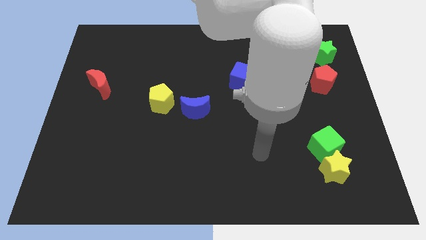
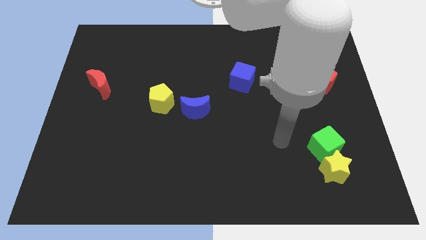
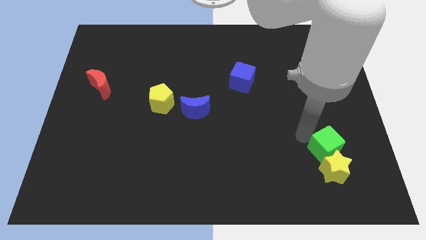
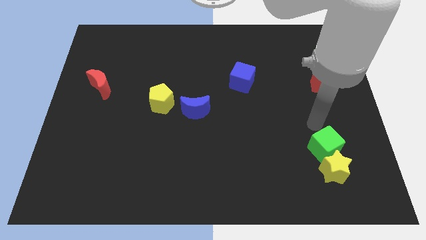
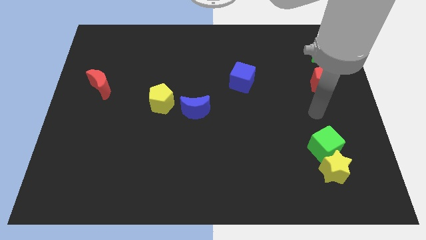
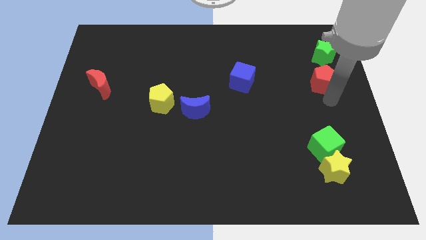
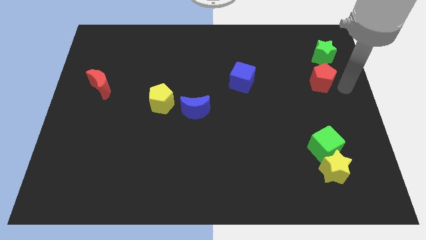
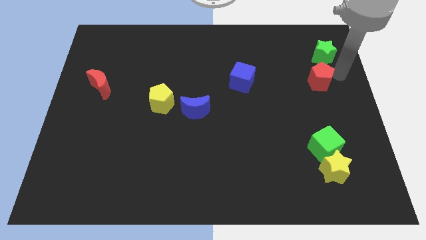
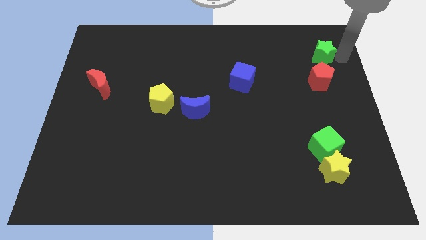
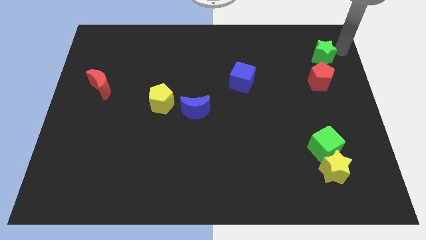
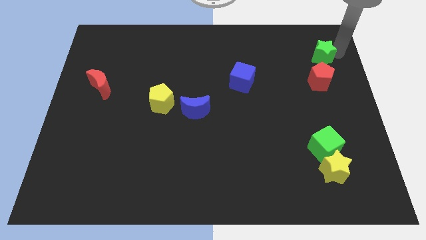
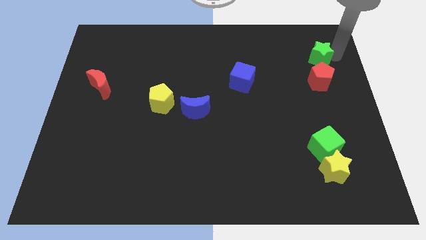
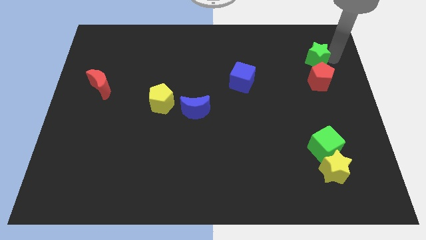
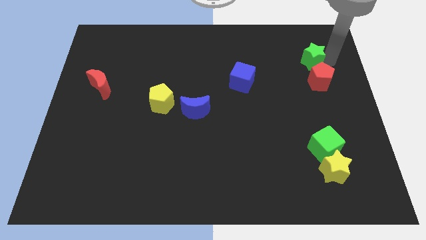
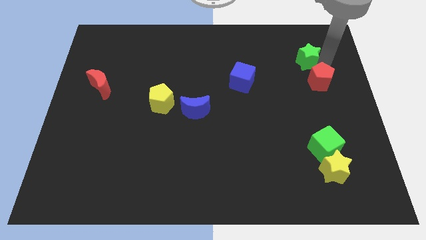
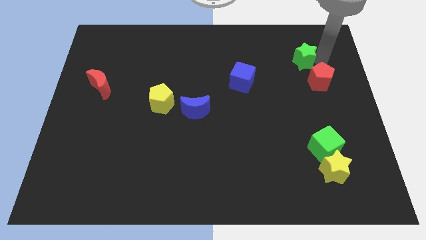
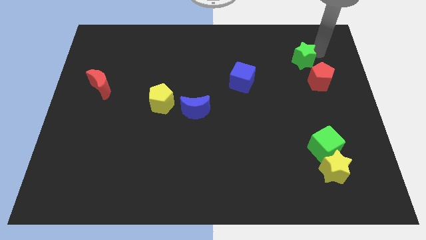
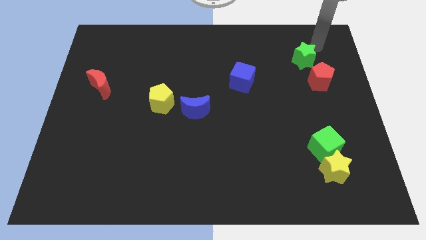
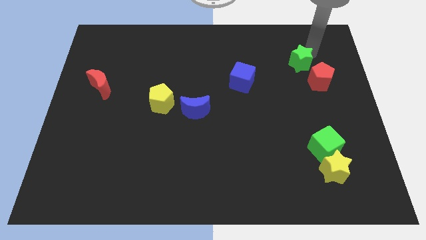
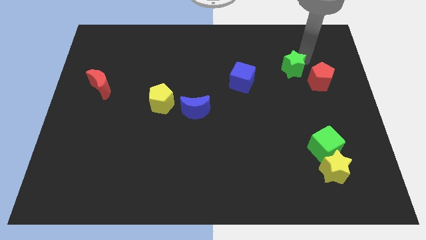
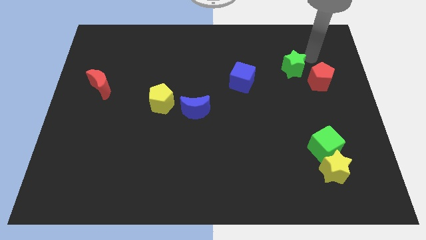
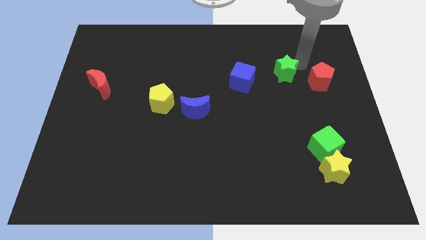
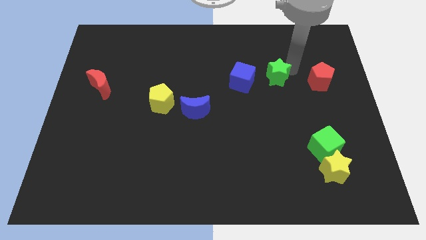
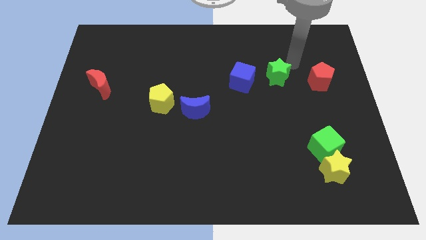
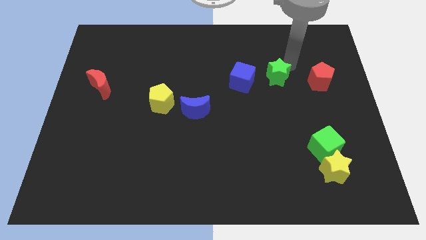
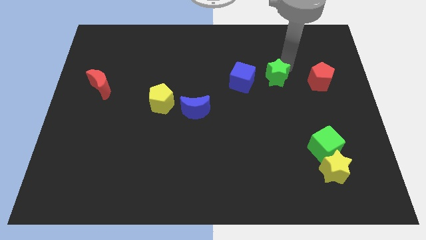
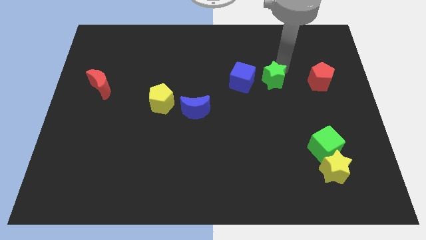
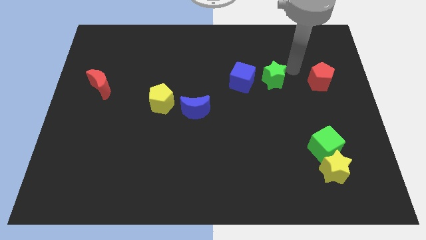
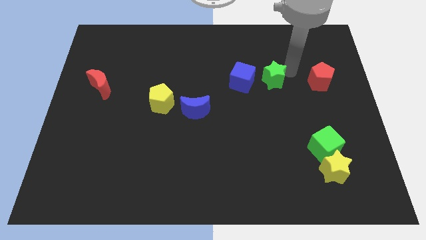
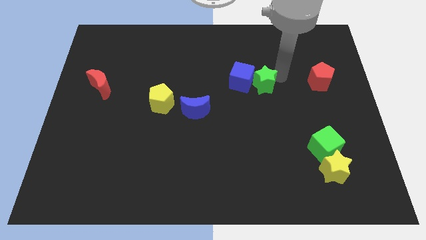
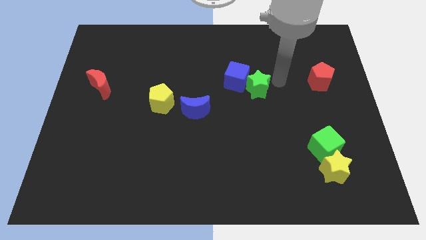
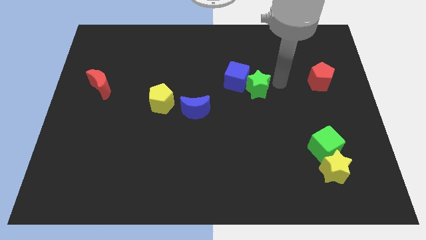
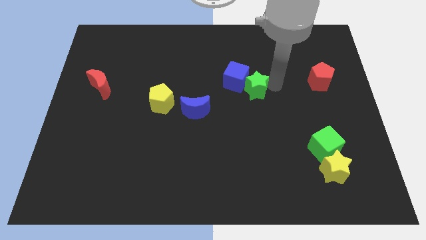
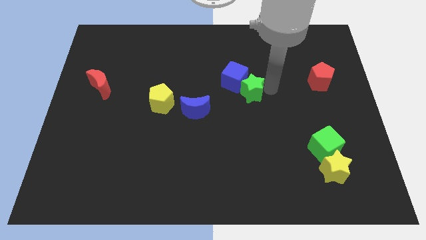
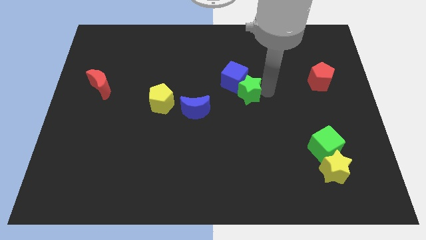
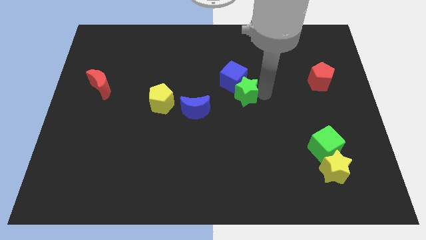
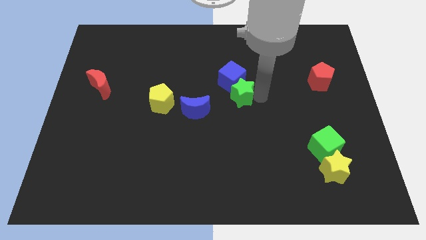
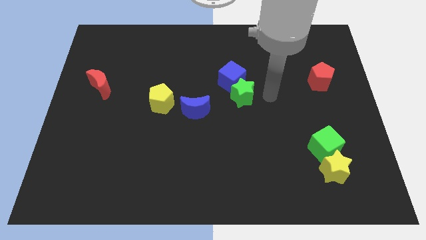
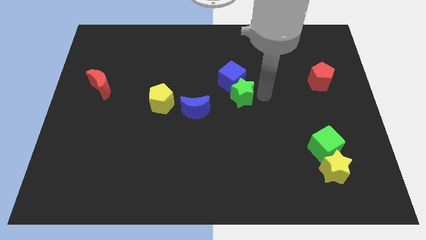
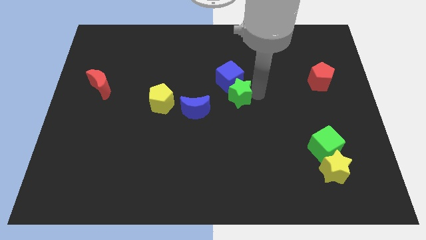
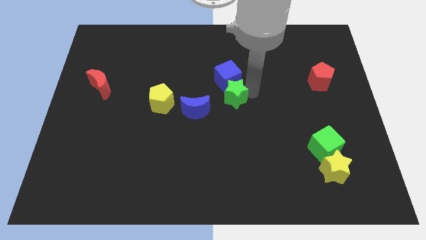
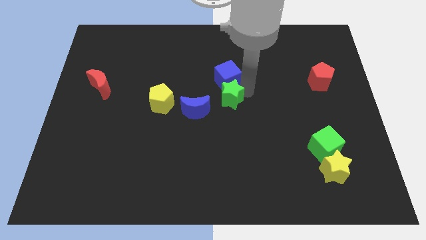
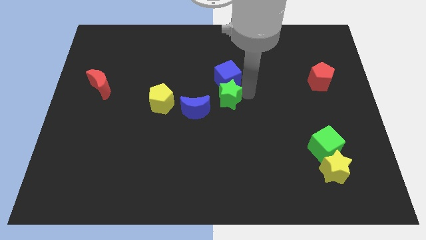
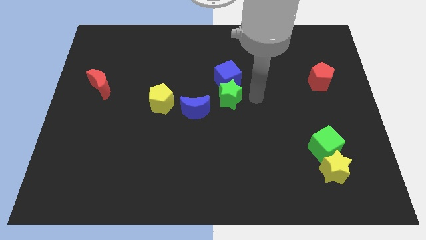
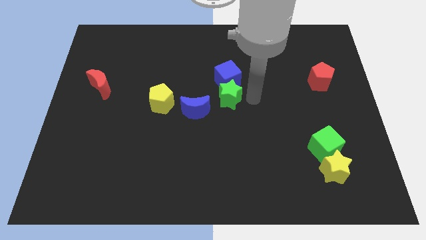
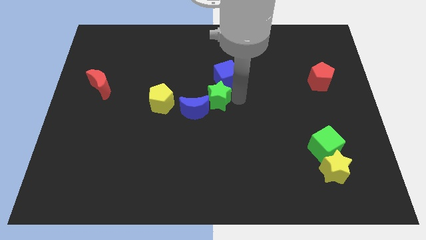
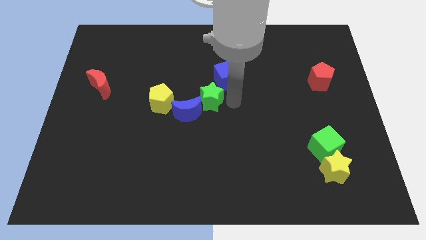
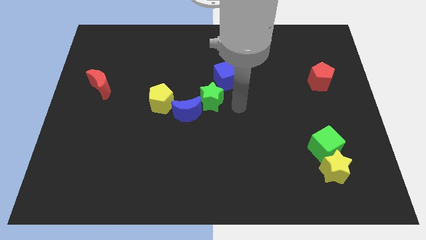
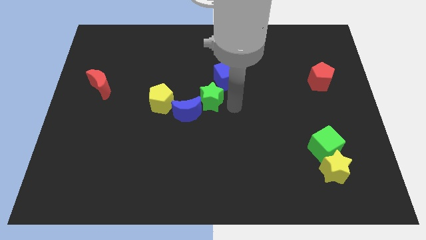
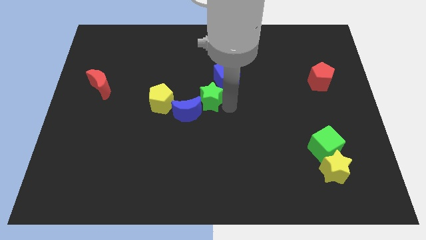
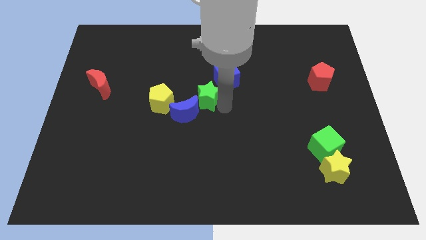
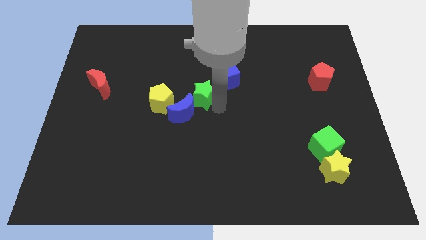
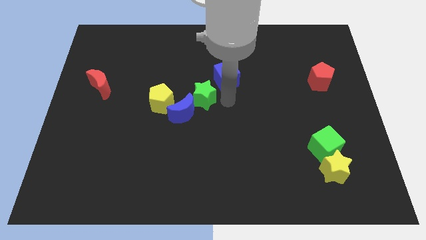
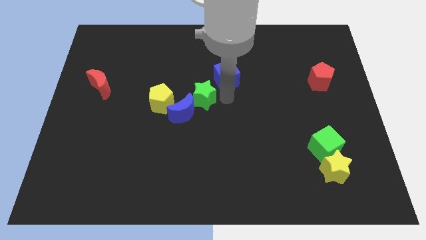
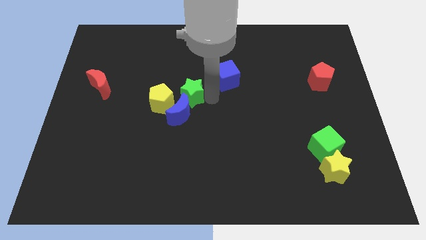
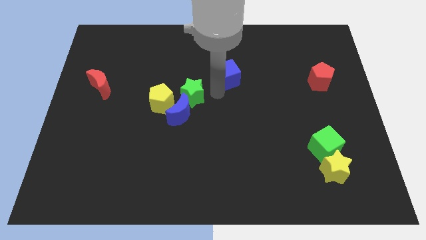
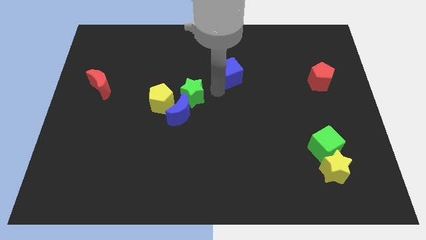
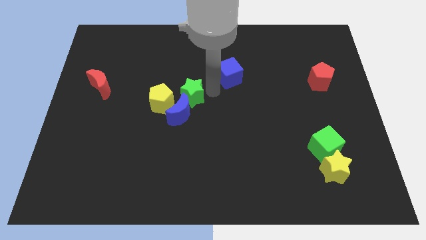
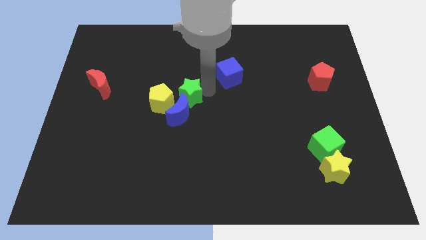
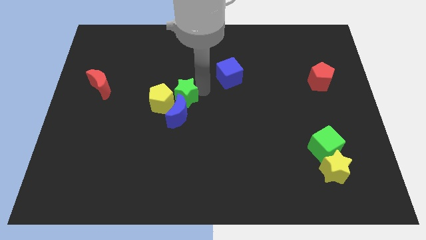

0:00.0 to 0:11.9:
put the green star towards the yellow pentagon

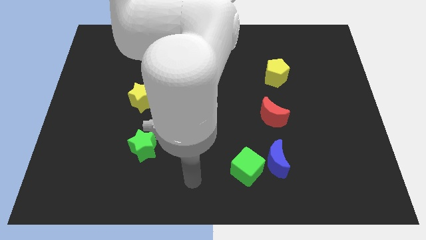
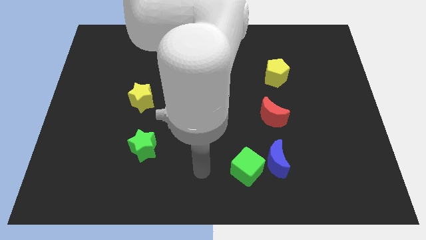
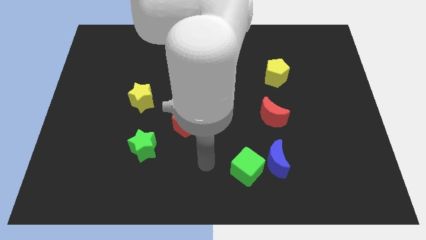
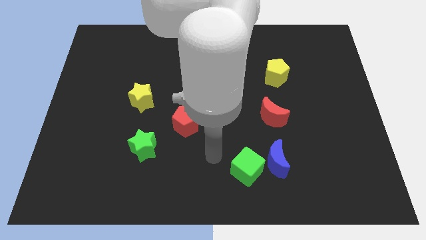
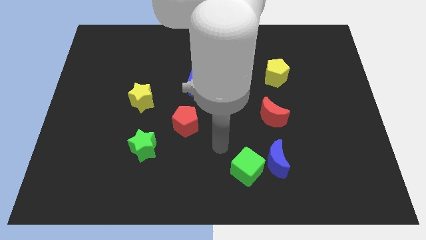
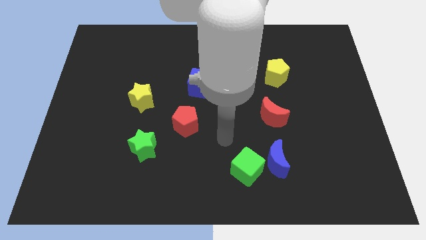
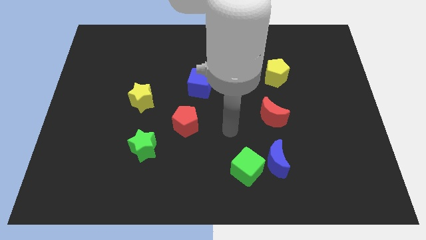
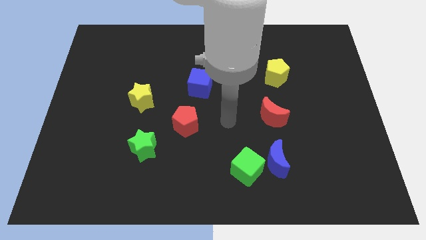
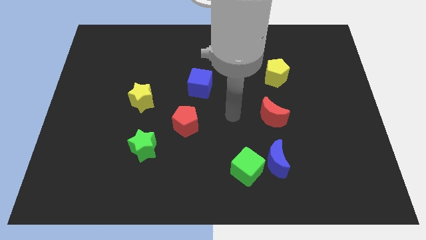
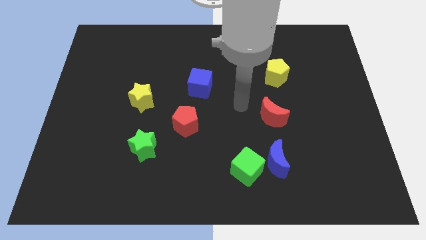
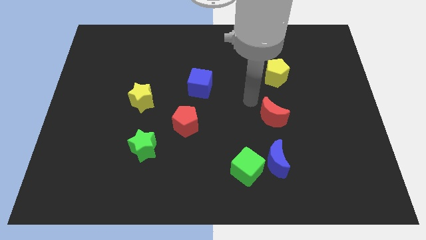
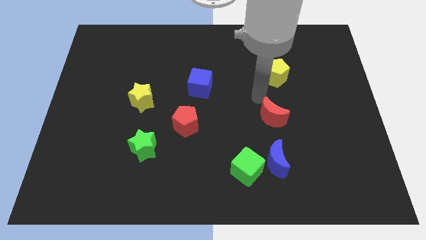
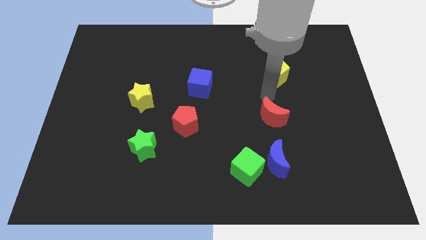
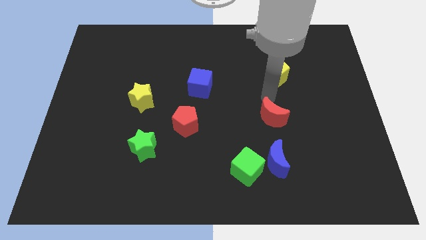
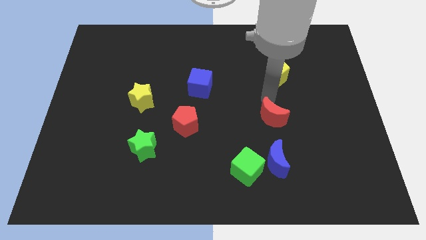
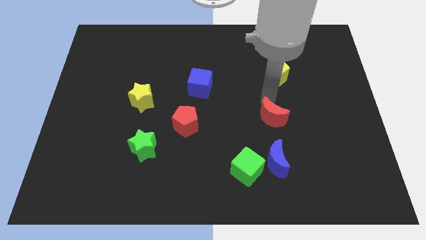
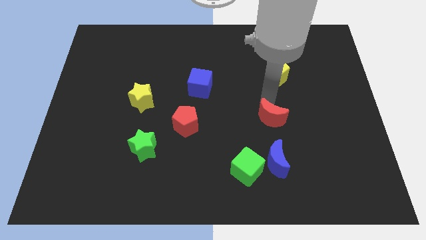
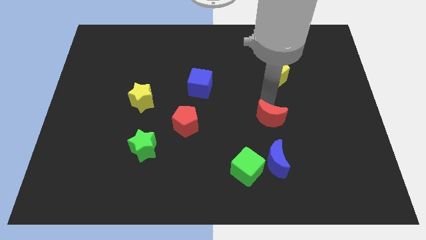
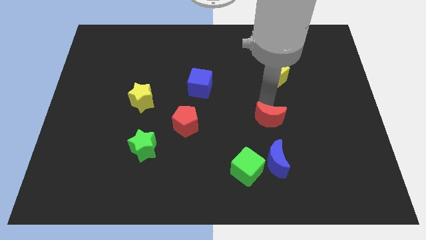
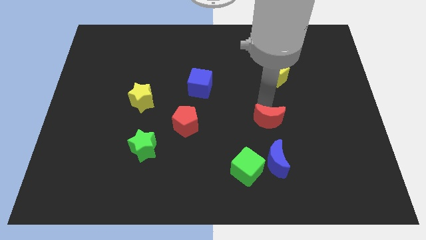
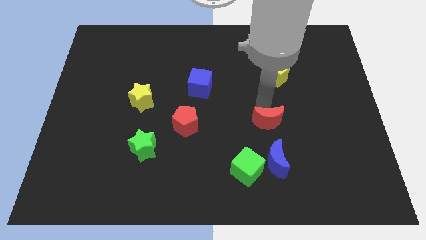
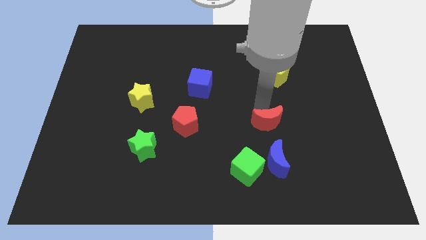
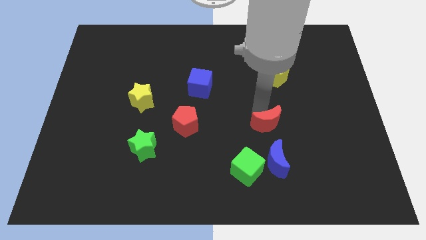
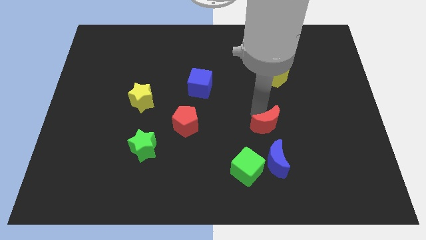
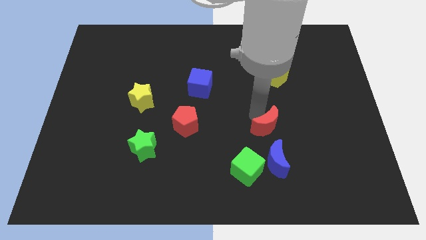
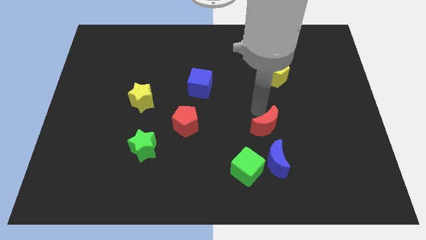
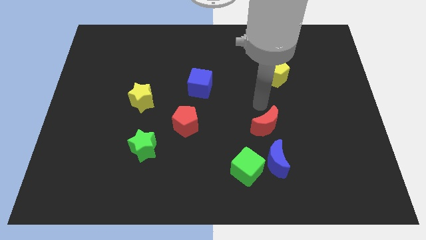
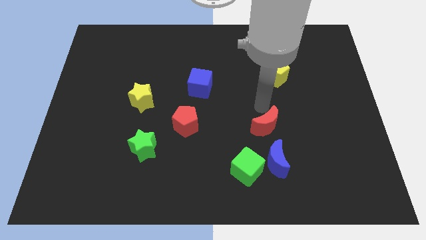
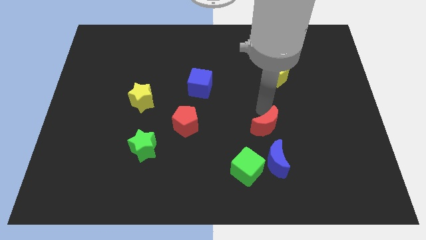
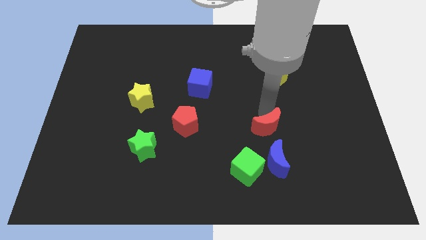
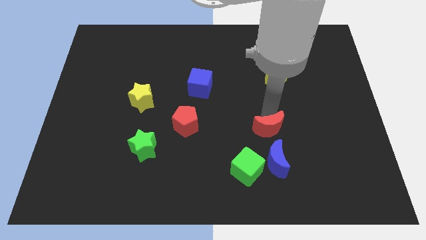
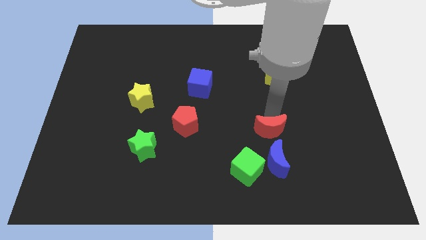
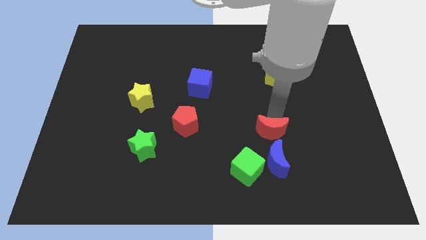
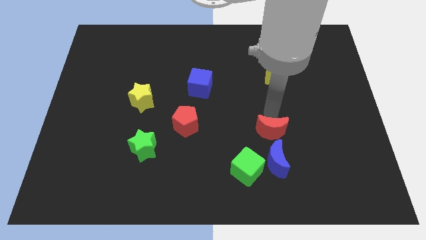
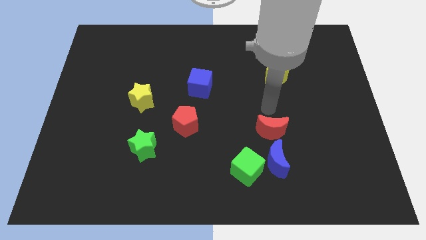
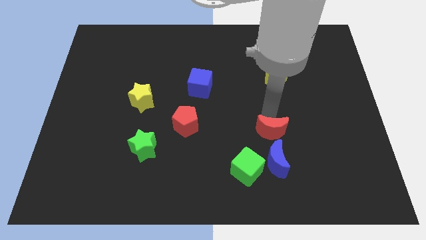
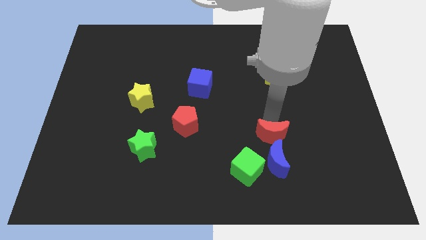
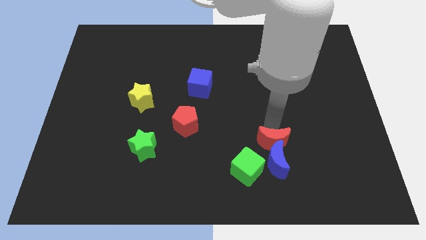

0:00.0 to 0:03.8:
move the red moon close to the blue moon
